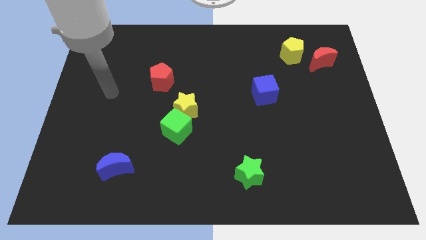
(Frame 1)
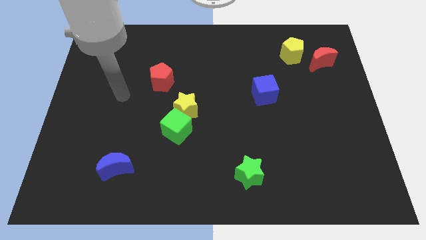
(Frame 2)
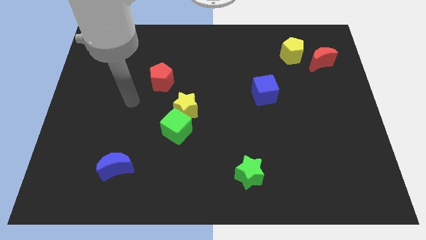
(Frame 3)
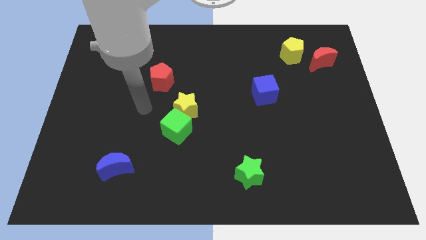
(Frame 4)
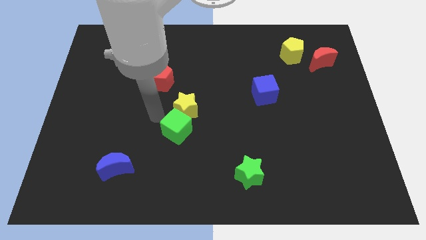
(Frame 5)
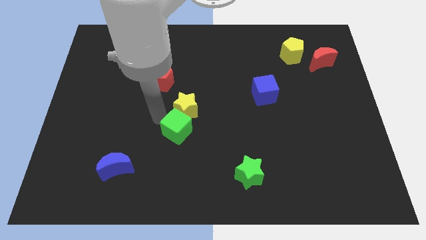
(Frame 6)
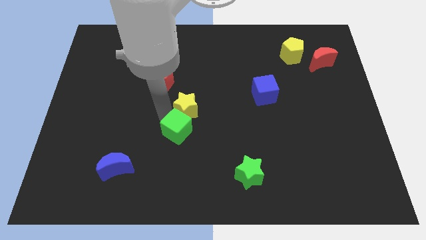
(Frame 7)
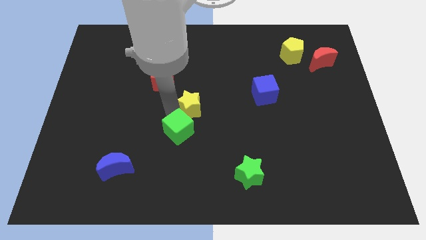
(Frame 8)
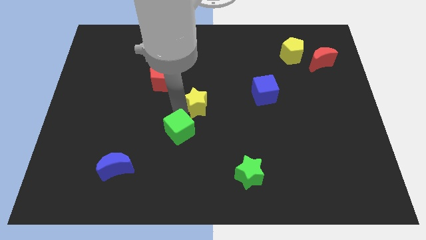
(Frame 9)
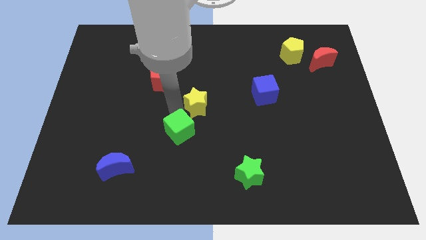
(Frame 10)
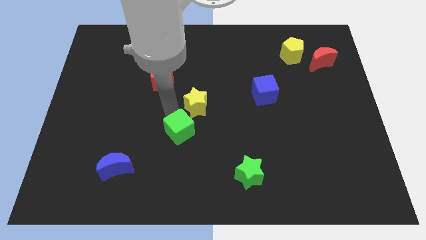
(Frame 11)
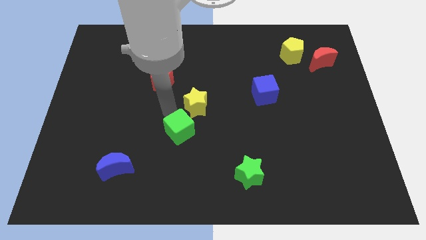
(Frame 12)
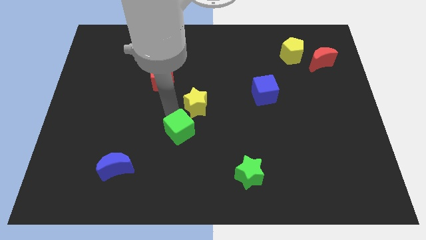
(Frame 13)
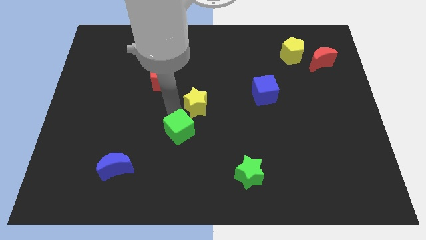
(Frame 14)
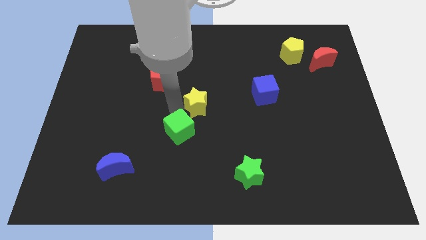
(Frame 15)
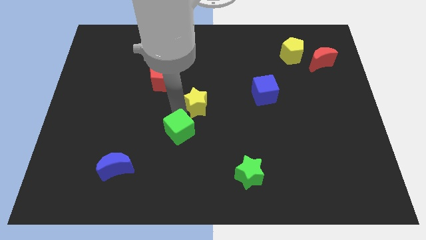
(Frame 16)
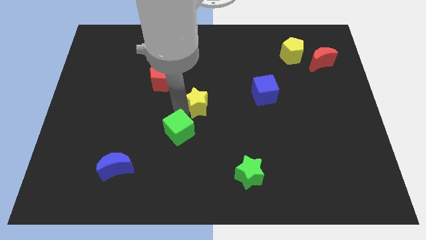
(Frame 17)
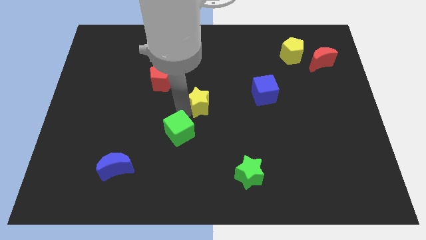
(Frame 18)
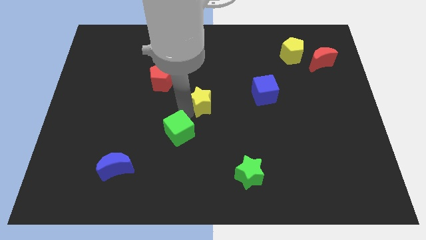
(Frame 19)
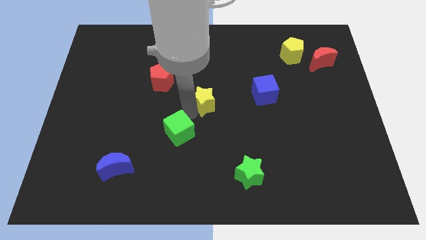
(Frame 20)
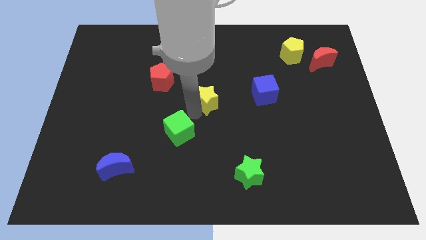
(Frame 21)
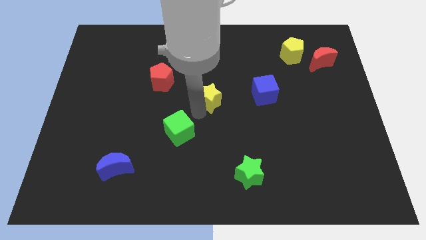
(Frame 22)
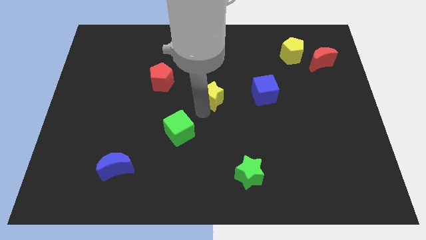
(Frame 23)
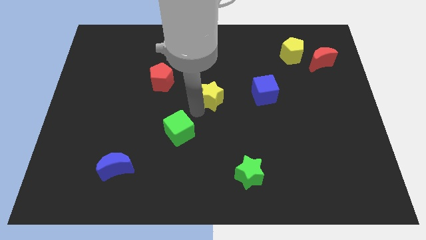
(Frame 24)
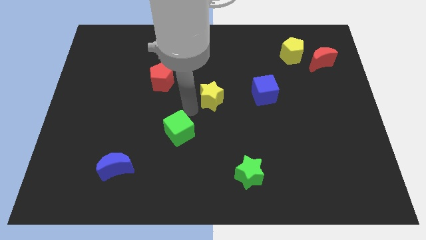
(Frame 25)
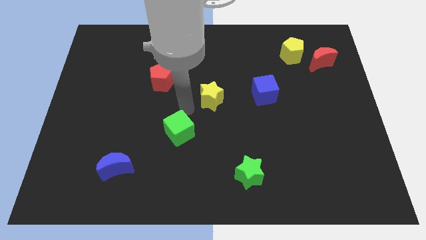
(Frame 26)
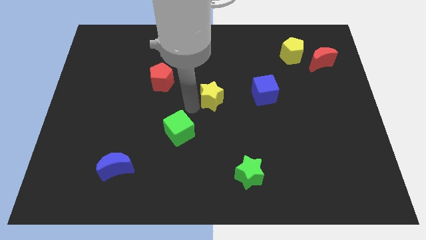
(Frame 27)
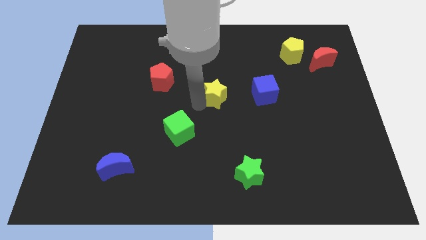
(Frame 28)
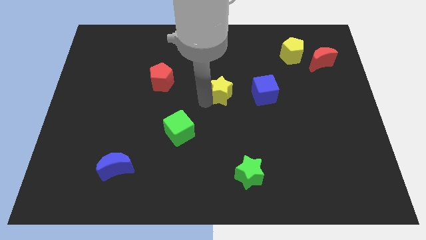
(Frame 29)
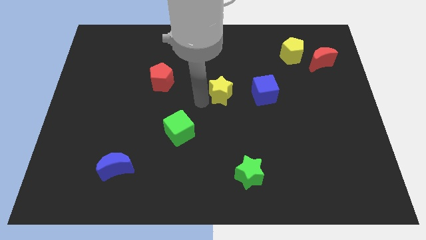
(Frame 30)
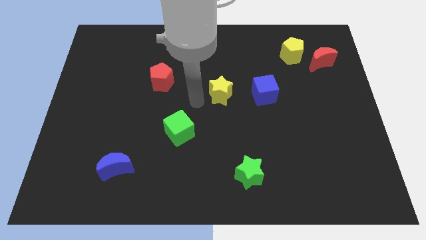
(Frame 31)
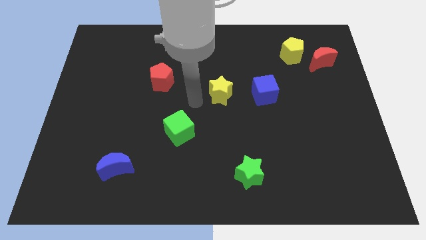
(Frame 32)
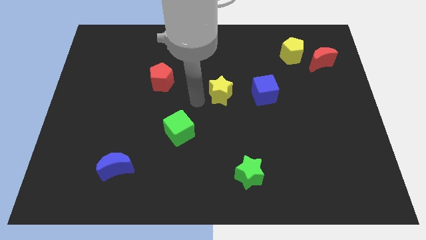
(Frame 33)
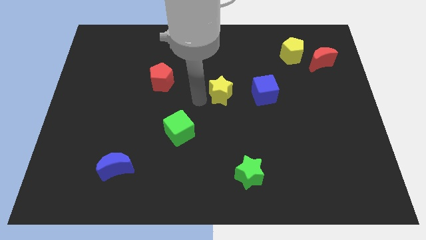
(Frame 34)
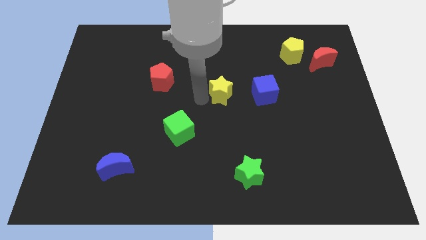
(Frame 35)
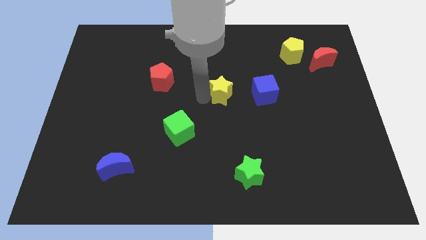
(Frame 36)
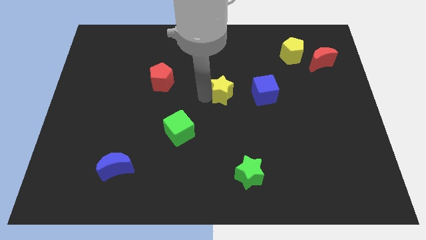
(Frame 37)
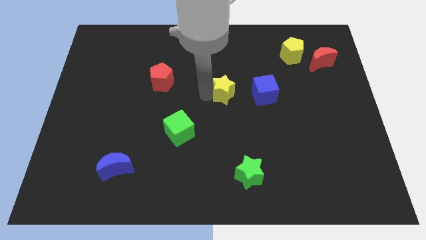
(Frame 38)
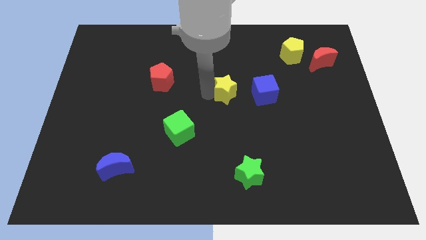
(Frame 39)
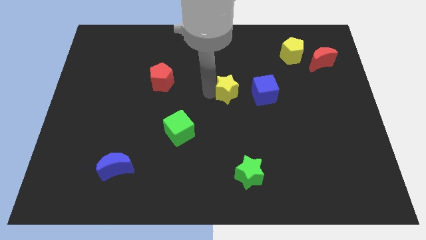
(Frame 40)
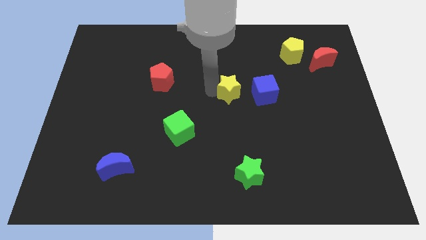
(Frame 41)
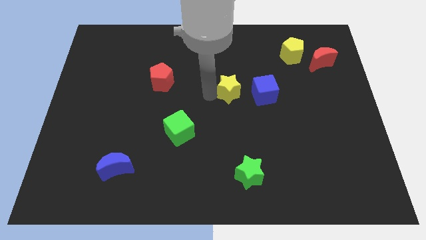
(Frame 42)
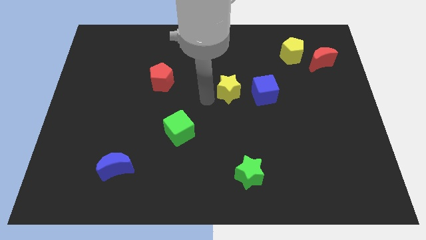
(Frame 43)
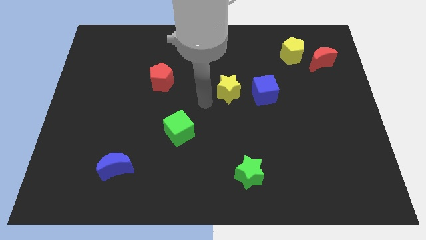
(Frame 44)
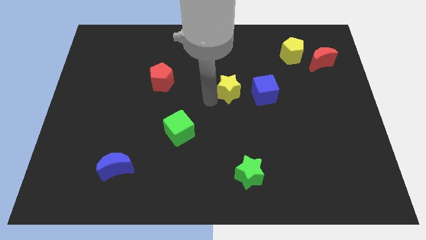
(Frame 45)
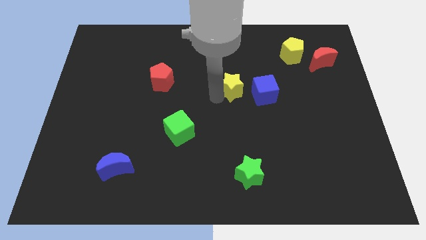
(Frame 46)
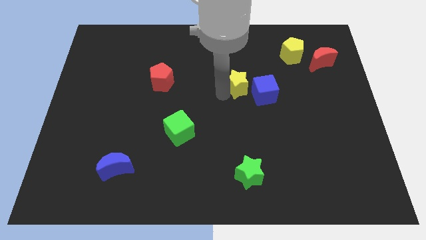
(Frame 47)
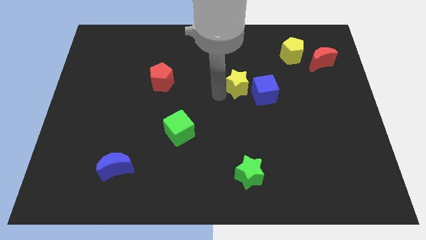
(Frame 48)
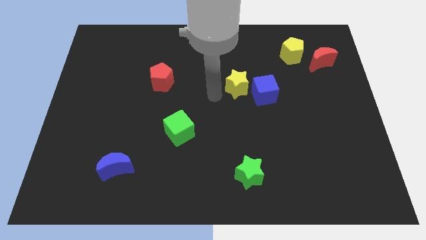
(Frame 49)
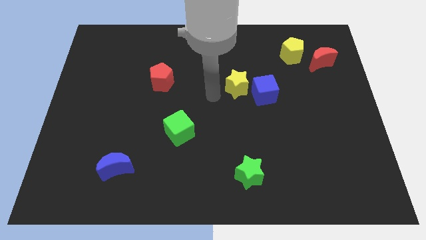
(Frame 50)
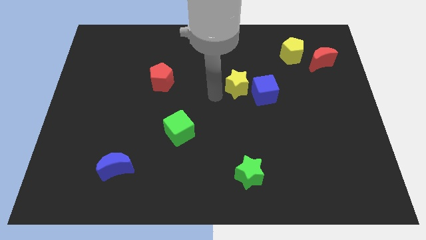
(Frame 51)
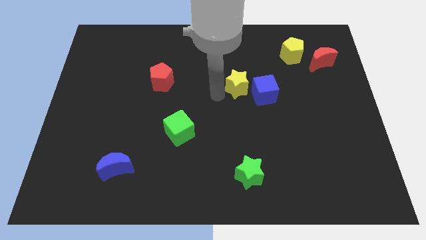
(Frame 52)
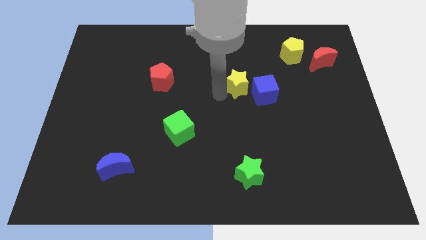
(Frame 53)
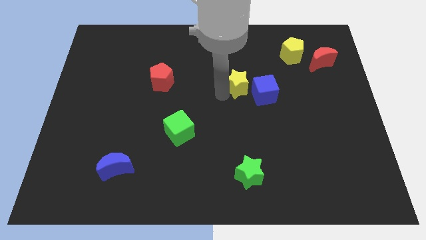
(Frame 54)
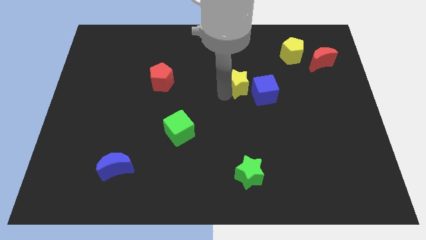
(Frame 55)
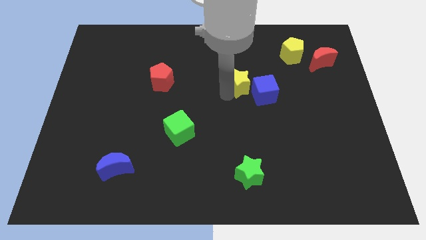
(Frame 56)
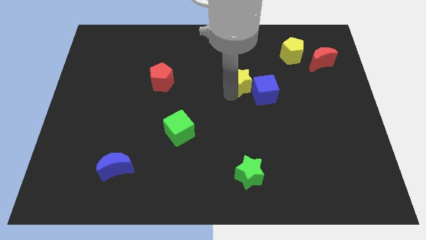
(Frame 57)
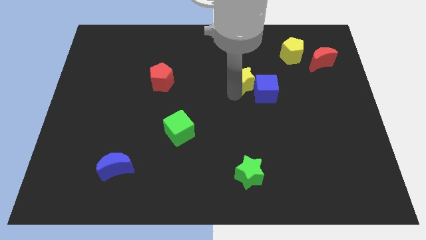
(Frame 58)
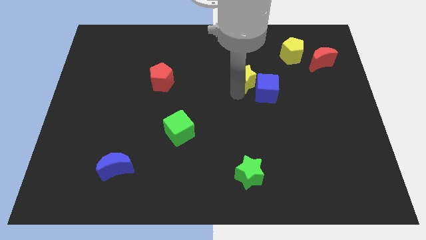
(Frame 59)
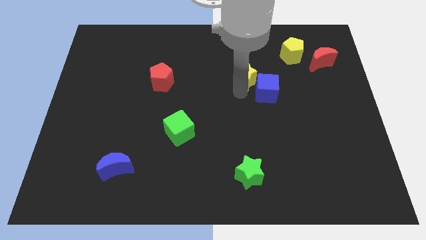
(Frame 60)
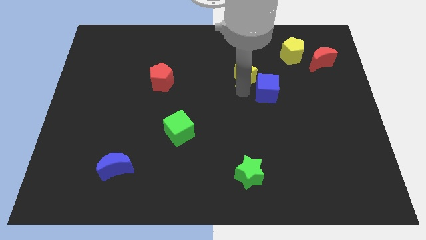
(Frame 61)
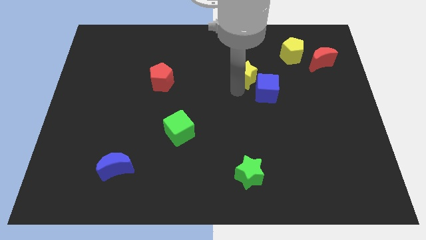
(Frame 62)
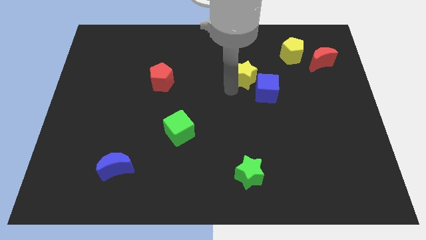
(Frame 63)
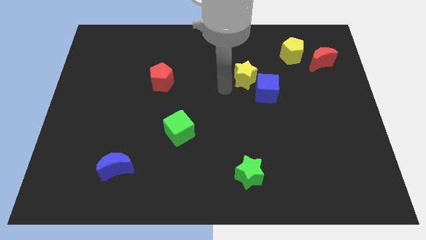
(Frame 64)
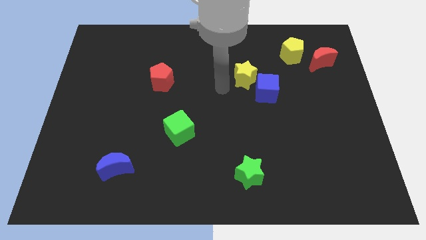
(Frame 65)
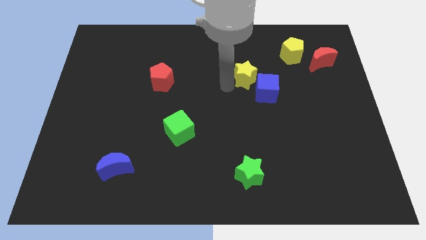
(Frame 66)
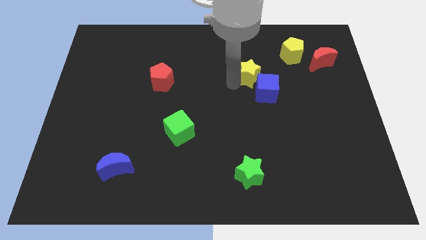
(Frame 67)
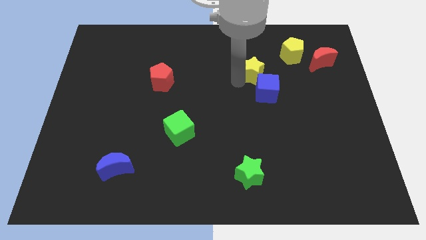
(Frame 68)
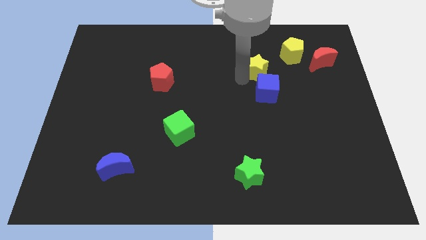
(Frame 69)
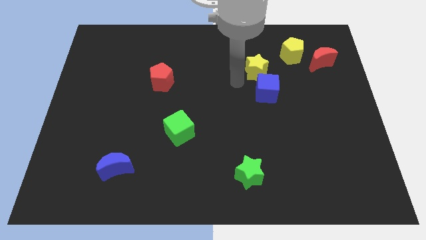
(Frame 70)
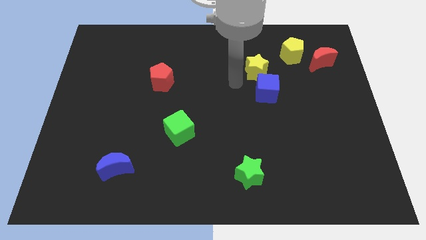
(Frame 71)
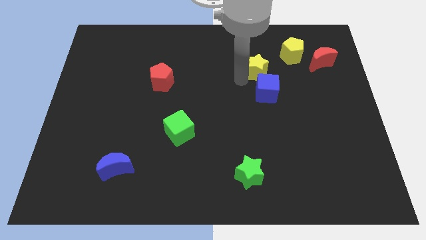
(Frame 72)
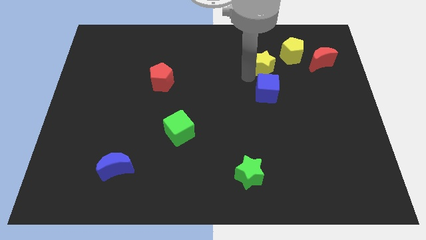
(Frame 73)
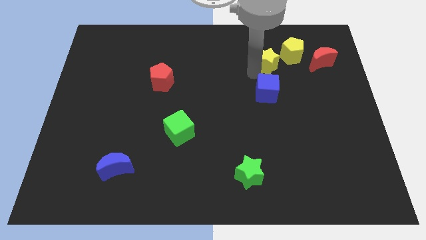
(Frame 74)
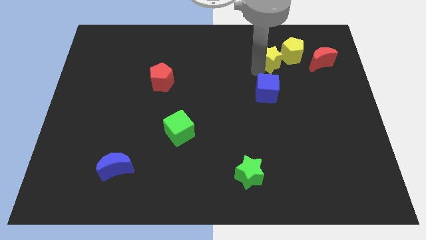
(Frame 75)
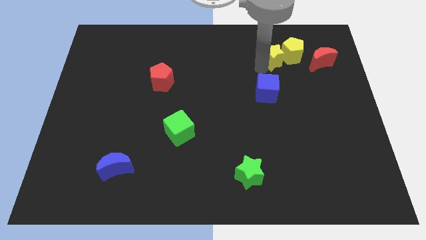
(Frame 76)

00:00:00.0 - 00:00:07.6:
push the yellow star next to the yellow pentagon

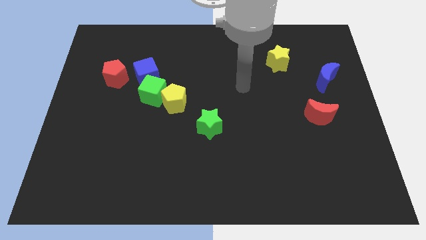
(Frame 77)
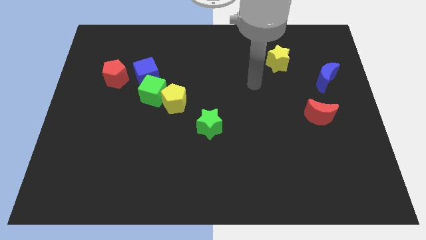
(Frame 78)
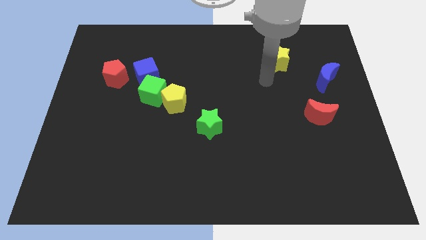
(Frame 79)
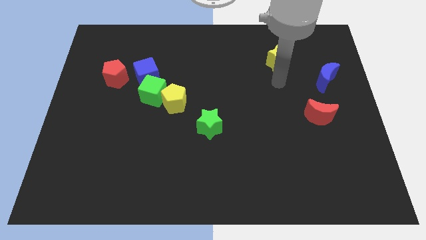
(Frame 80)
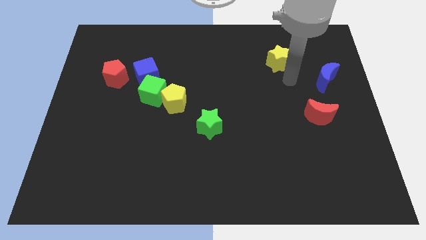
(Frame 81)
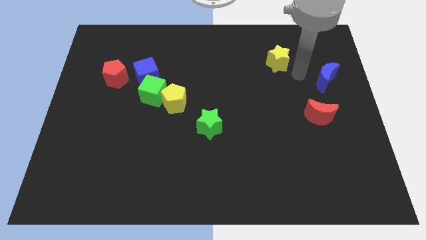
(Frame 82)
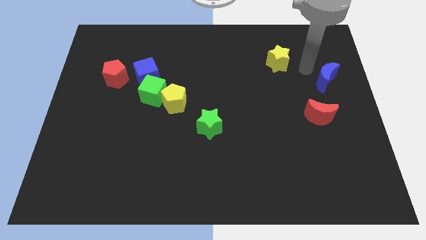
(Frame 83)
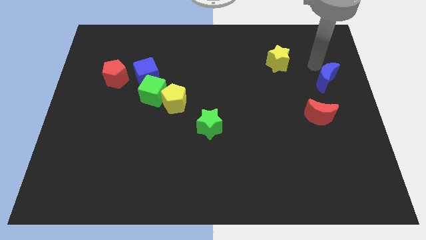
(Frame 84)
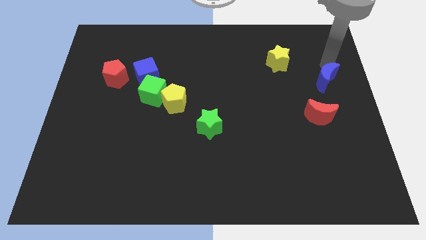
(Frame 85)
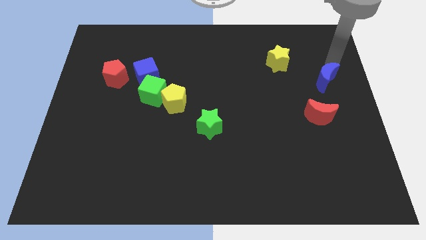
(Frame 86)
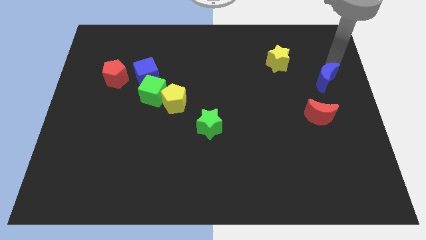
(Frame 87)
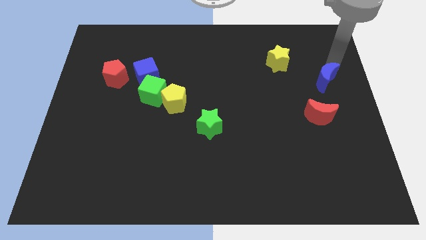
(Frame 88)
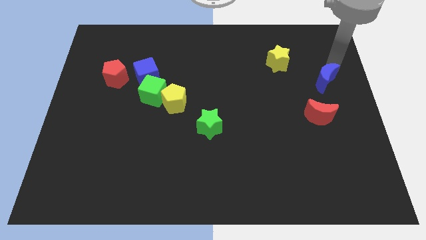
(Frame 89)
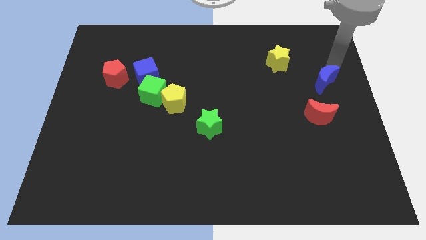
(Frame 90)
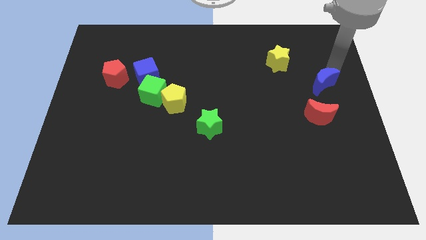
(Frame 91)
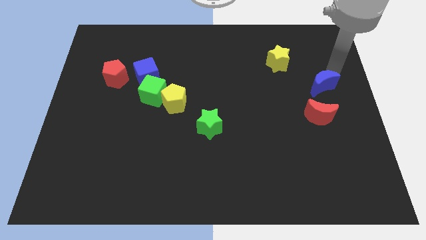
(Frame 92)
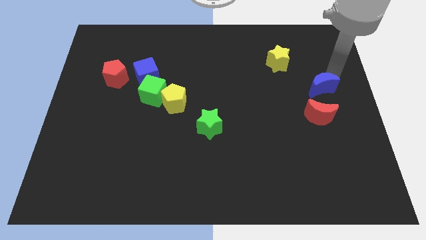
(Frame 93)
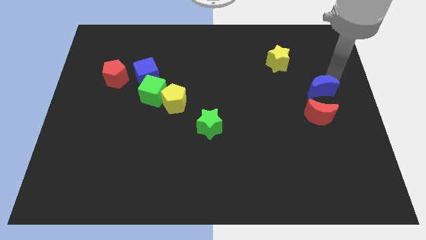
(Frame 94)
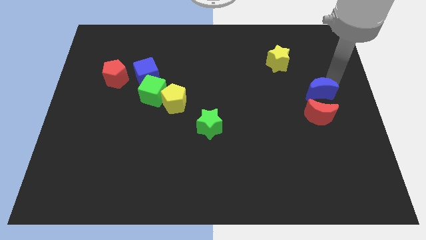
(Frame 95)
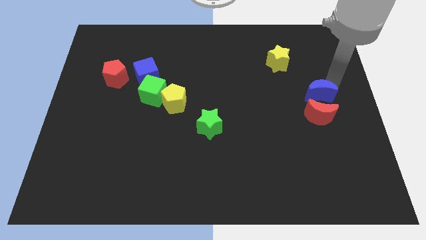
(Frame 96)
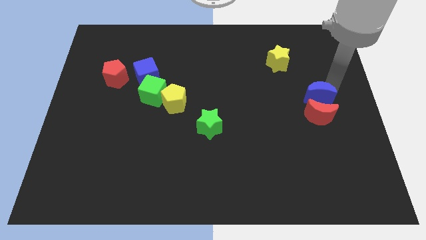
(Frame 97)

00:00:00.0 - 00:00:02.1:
put the blue moon next to the red moon
